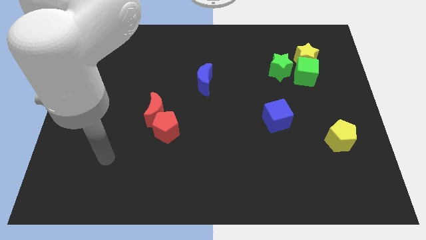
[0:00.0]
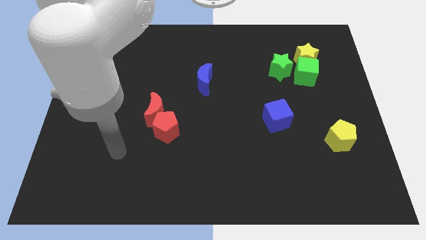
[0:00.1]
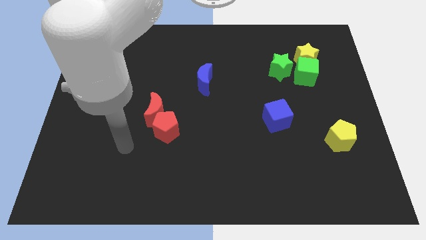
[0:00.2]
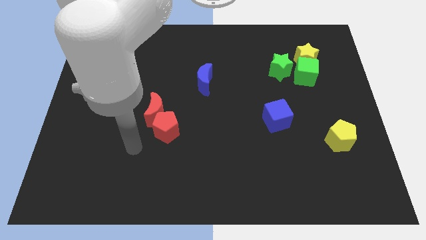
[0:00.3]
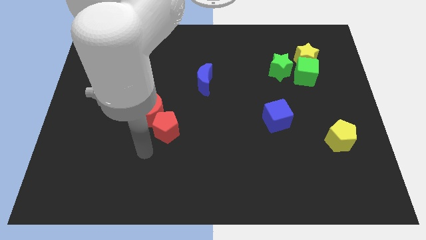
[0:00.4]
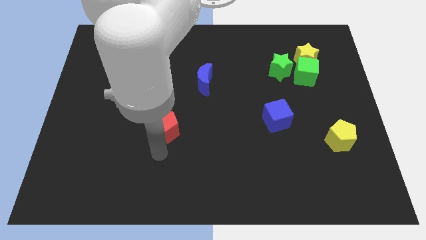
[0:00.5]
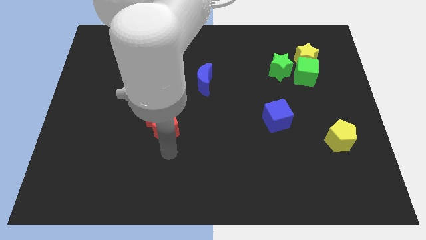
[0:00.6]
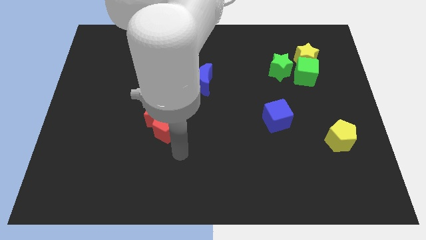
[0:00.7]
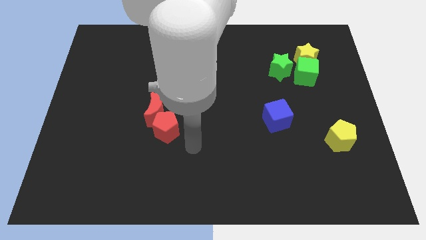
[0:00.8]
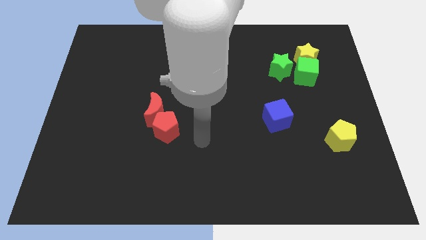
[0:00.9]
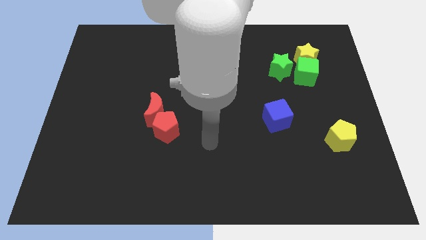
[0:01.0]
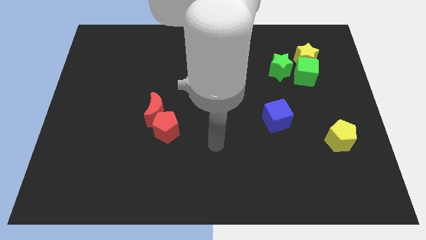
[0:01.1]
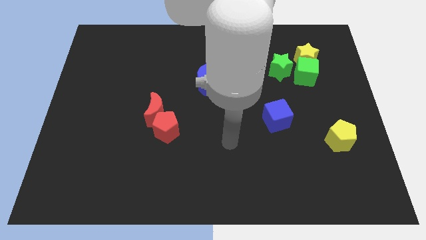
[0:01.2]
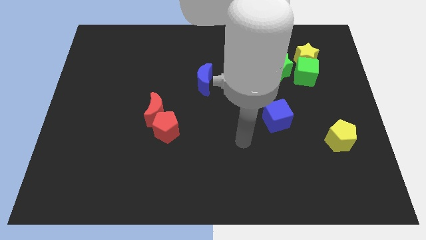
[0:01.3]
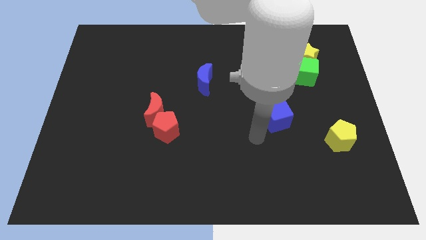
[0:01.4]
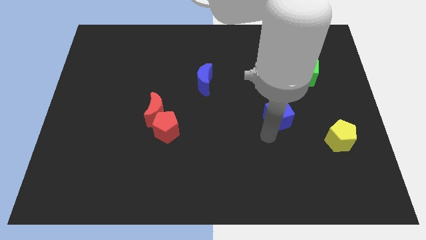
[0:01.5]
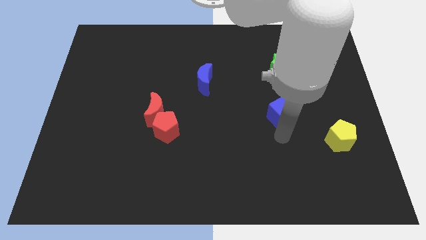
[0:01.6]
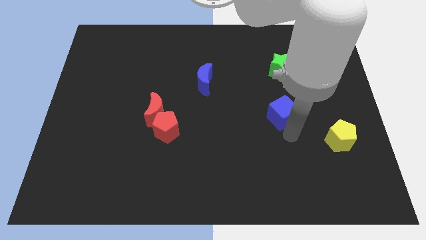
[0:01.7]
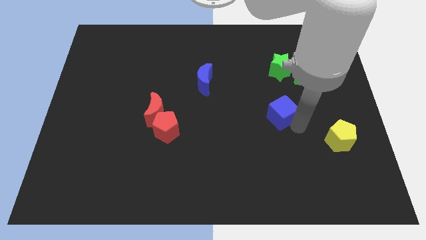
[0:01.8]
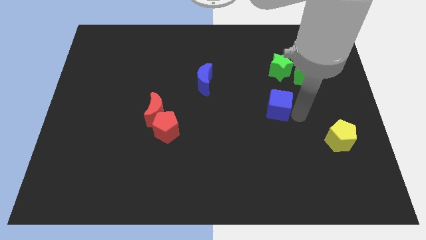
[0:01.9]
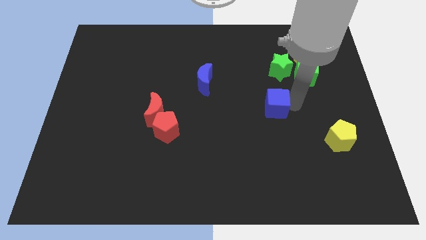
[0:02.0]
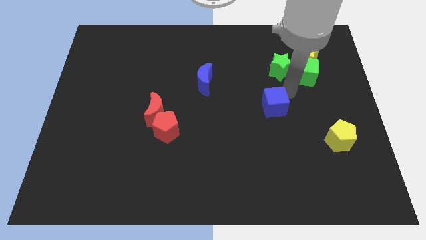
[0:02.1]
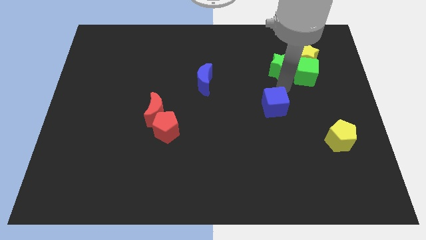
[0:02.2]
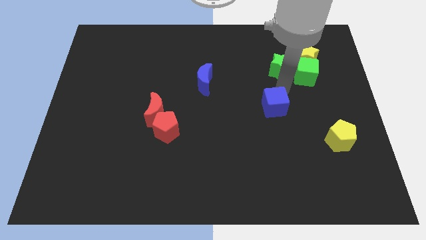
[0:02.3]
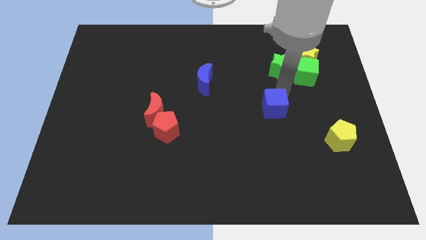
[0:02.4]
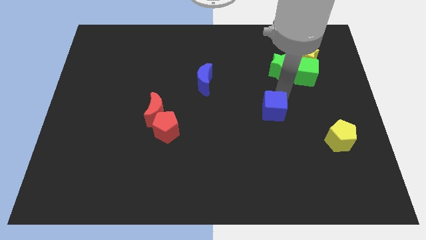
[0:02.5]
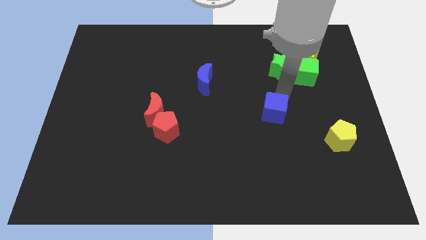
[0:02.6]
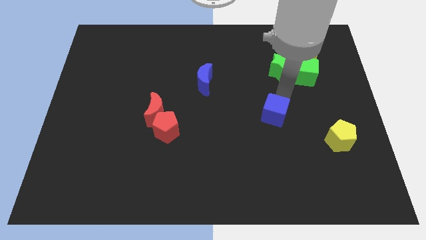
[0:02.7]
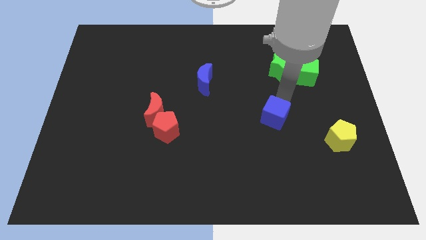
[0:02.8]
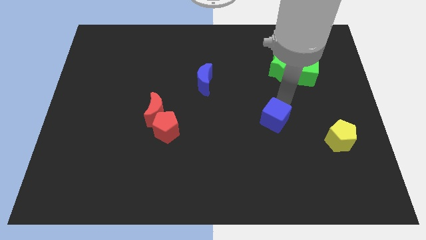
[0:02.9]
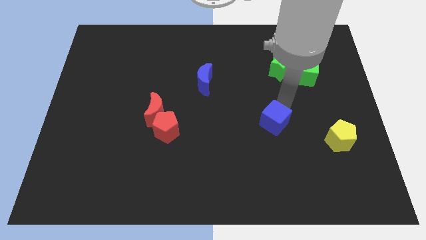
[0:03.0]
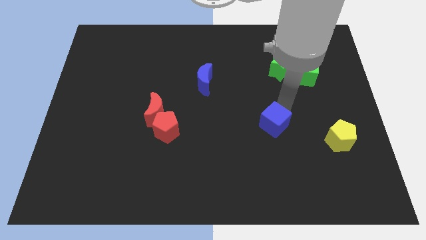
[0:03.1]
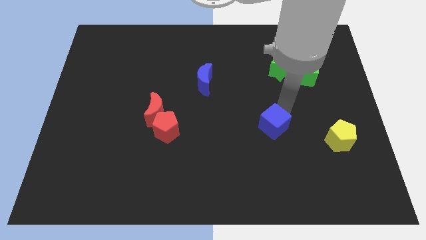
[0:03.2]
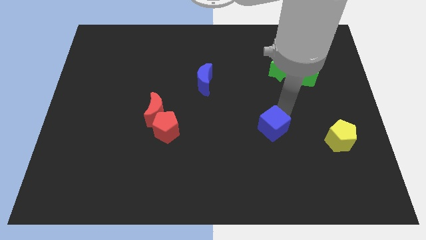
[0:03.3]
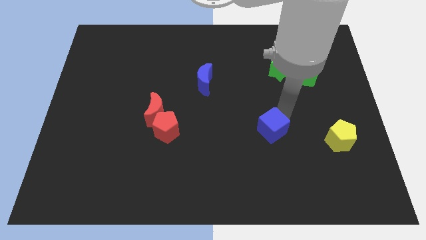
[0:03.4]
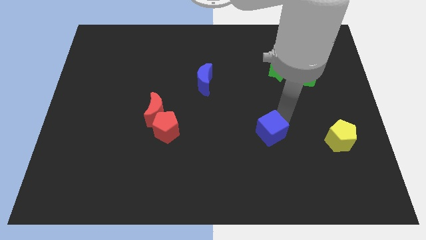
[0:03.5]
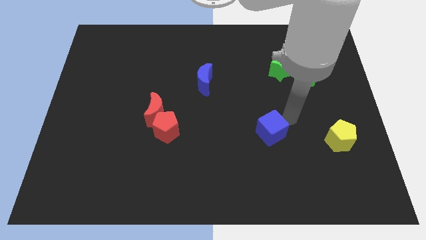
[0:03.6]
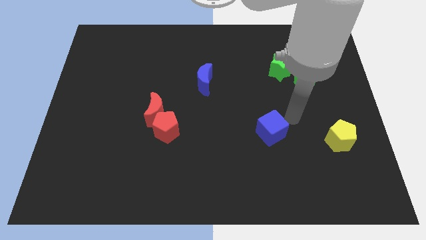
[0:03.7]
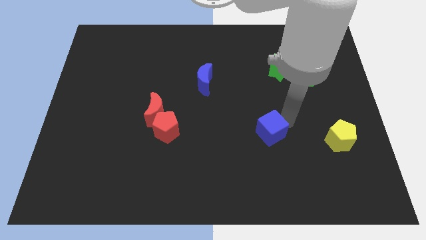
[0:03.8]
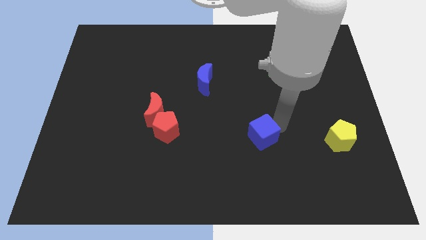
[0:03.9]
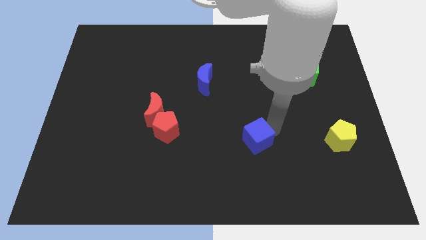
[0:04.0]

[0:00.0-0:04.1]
move the blue cube diagonally down and left somewhat

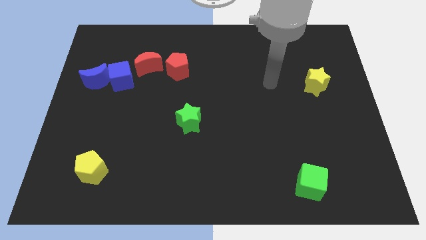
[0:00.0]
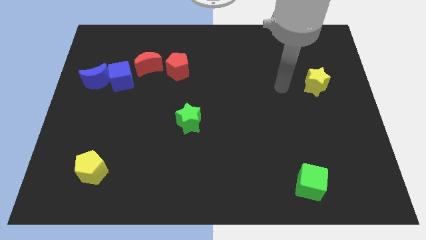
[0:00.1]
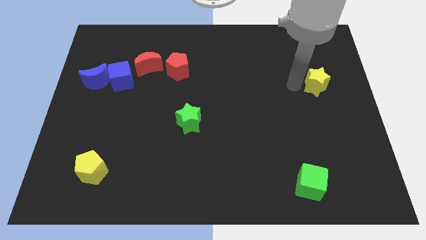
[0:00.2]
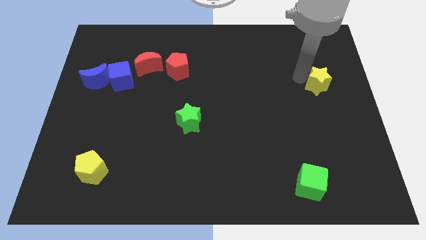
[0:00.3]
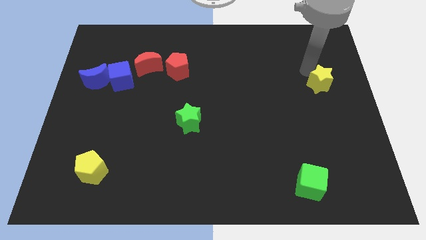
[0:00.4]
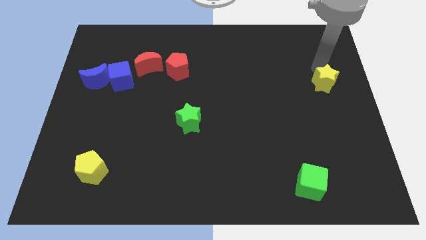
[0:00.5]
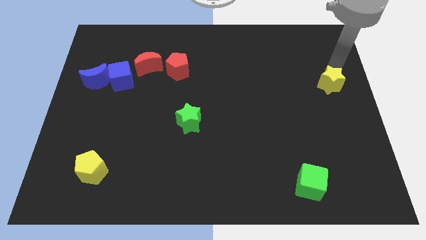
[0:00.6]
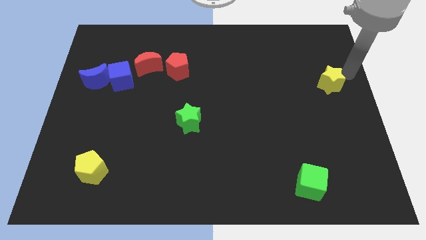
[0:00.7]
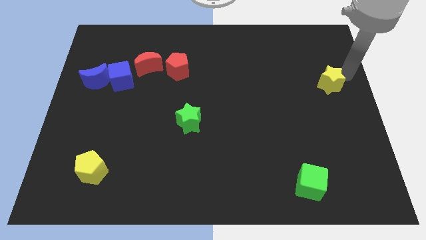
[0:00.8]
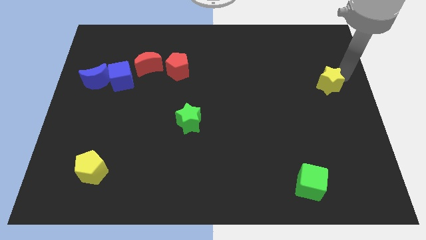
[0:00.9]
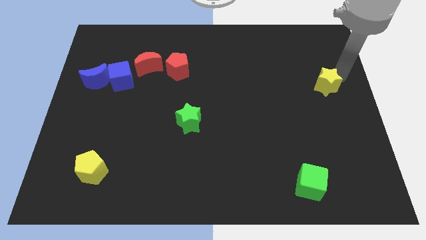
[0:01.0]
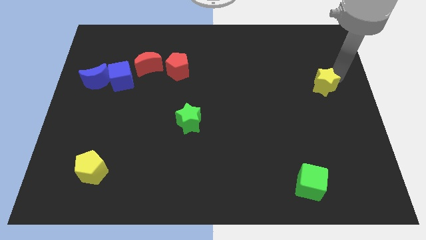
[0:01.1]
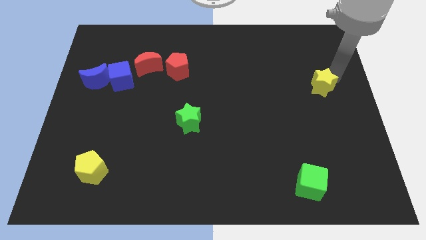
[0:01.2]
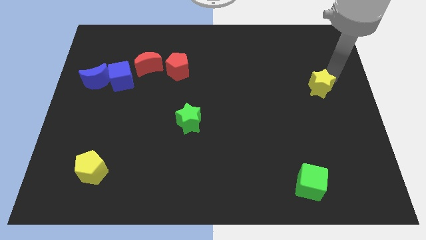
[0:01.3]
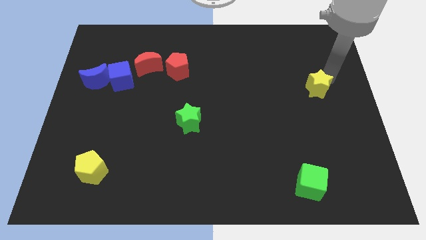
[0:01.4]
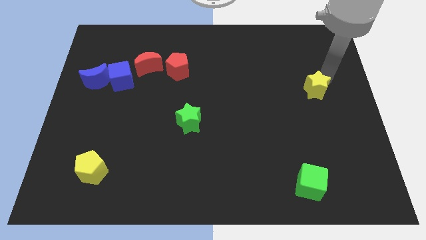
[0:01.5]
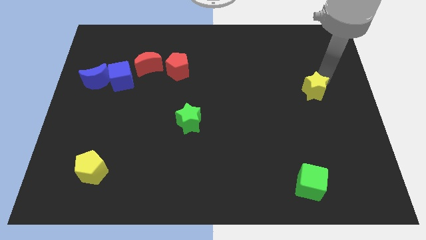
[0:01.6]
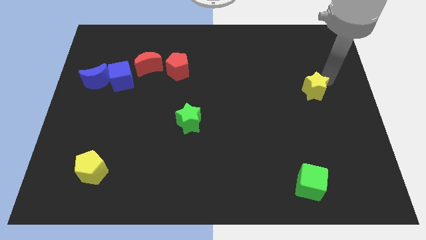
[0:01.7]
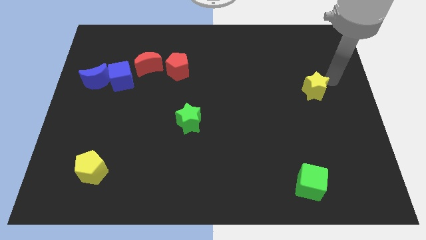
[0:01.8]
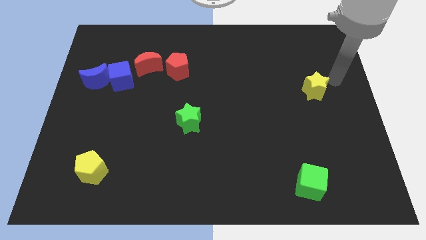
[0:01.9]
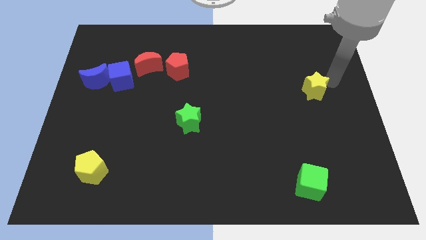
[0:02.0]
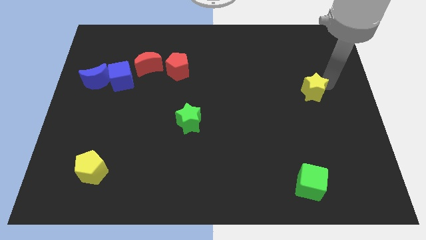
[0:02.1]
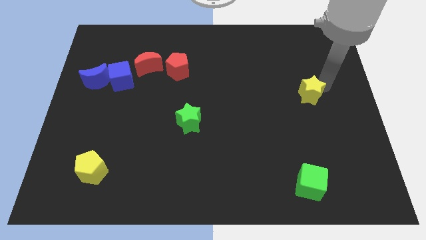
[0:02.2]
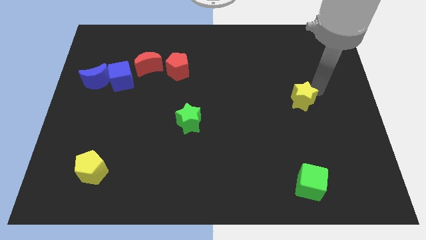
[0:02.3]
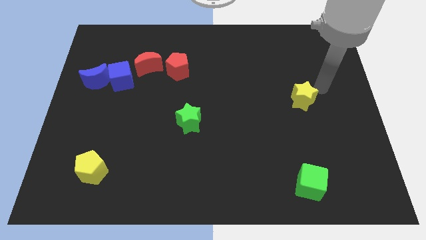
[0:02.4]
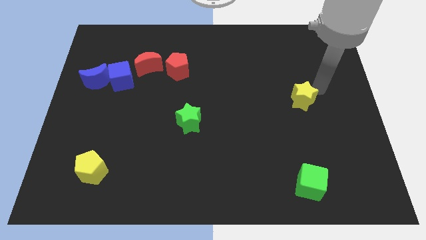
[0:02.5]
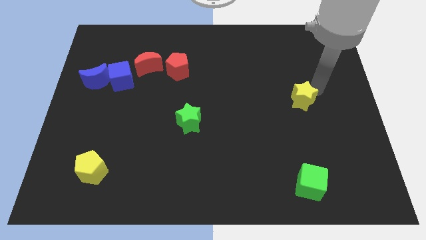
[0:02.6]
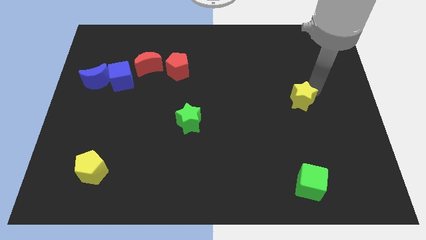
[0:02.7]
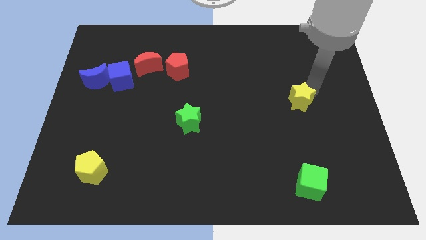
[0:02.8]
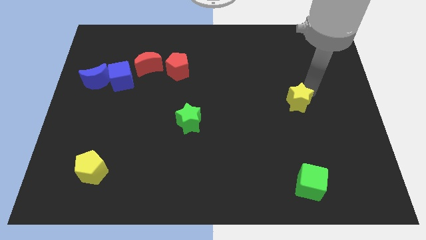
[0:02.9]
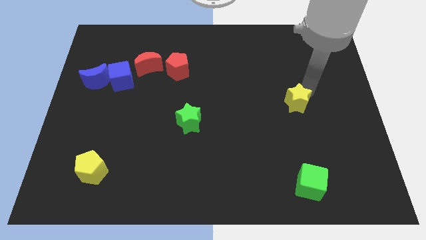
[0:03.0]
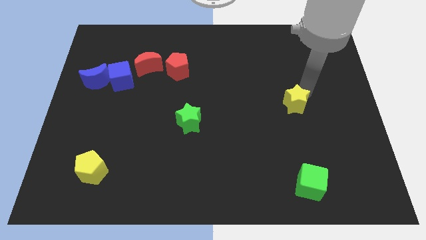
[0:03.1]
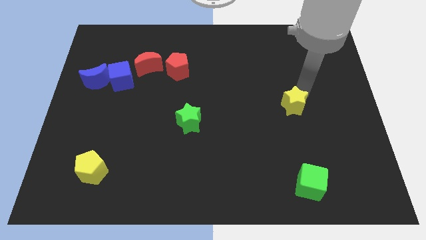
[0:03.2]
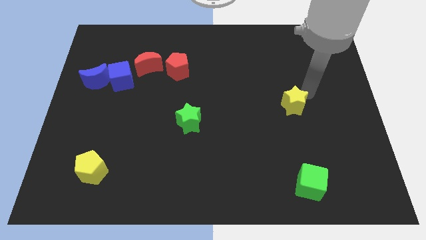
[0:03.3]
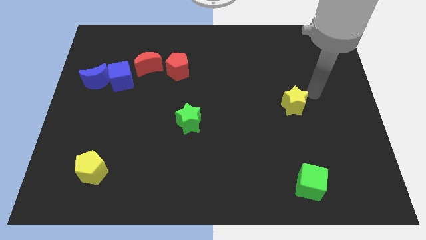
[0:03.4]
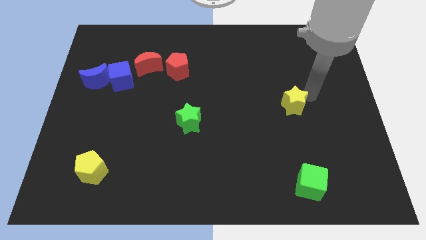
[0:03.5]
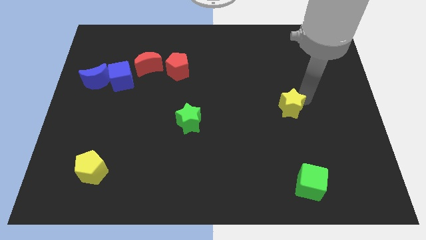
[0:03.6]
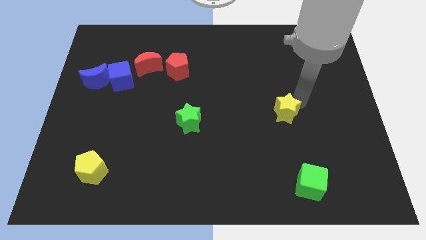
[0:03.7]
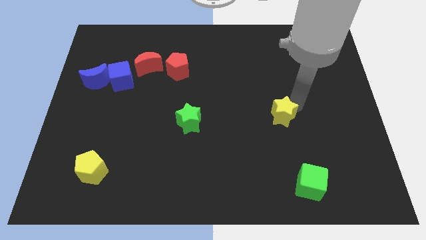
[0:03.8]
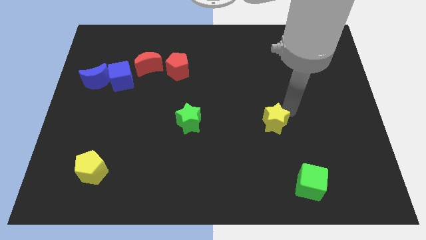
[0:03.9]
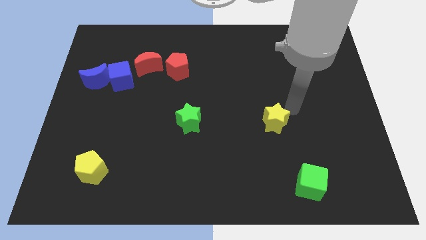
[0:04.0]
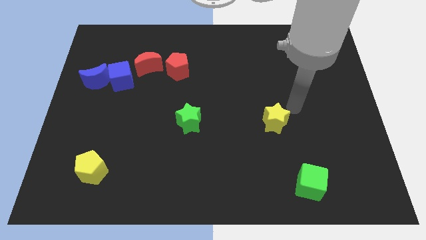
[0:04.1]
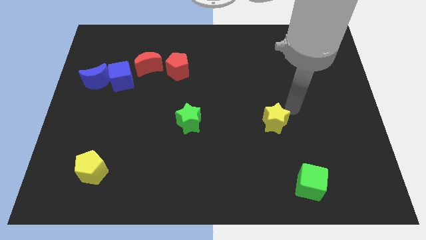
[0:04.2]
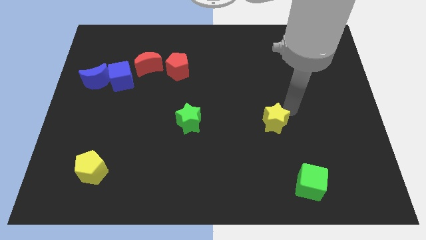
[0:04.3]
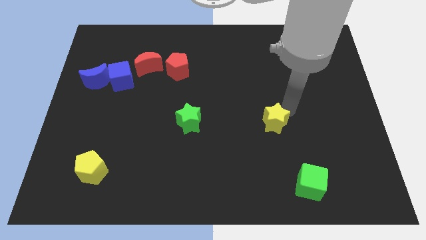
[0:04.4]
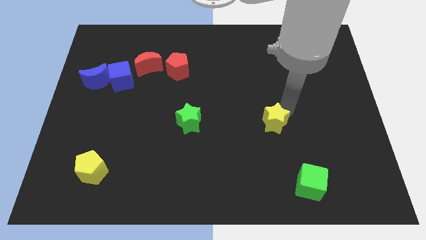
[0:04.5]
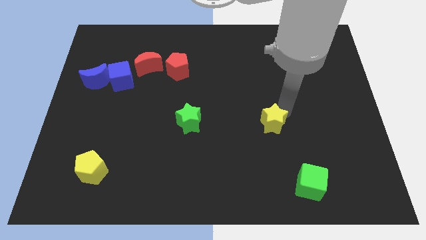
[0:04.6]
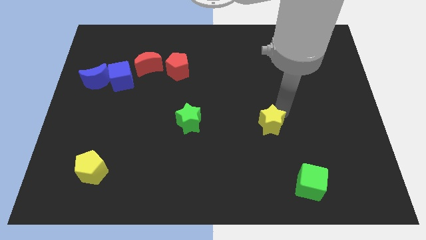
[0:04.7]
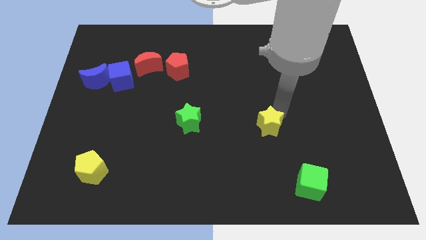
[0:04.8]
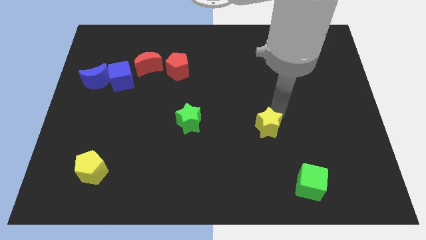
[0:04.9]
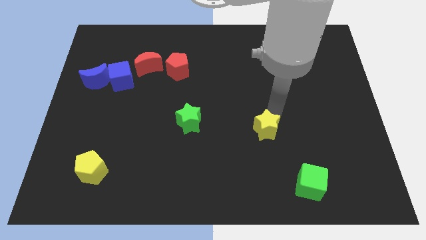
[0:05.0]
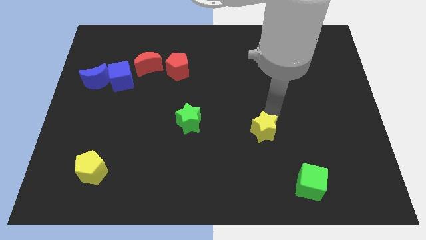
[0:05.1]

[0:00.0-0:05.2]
move the yellow star diagonally downwards and to the left
